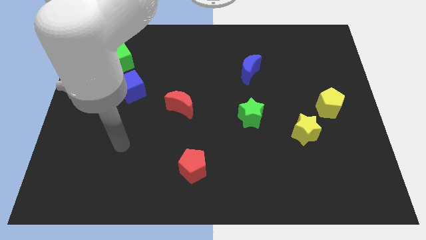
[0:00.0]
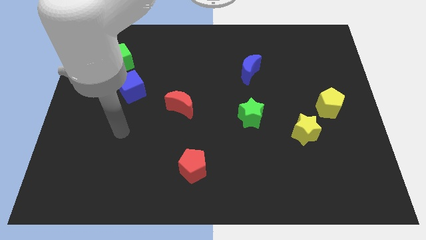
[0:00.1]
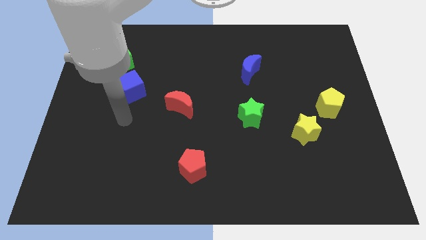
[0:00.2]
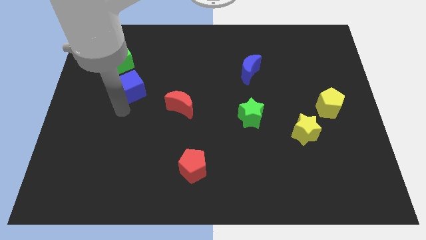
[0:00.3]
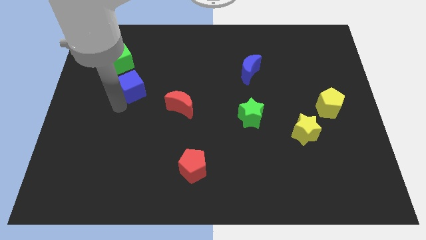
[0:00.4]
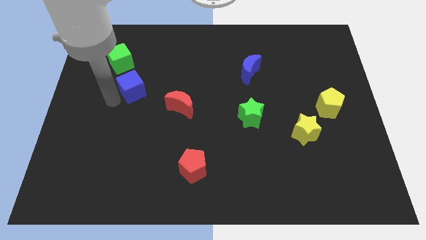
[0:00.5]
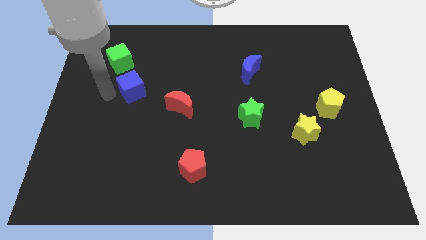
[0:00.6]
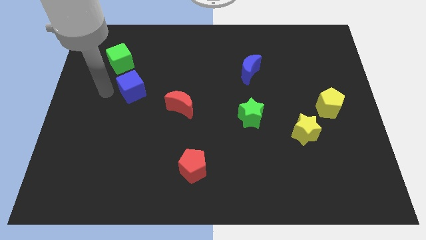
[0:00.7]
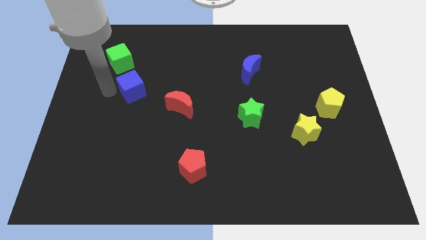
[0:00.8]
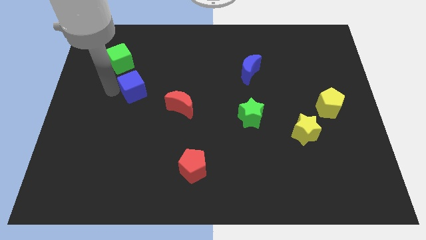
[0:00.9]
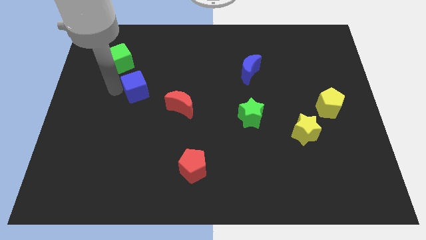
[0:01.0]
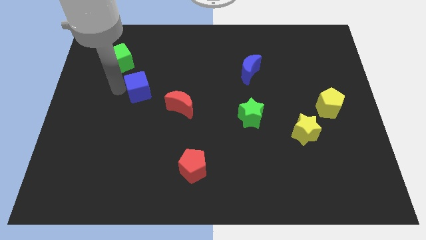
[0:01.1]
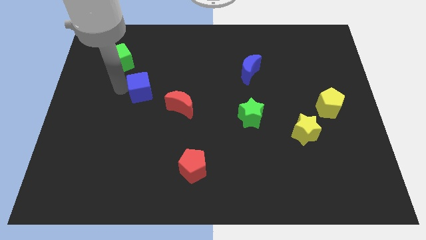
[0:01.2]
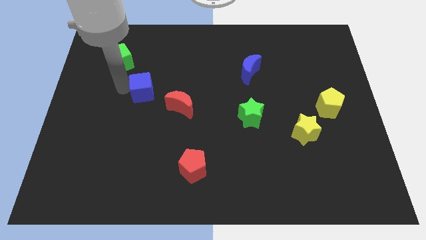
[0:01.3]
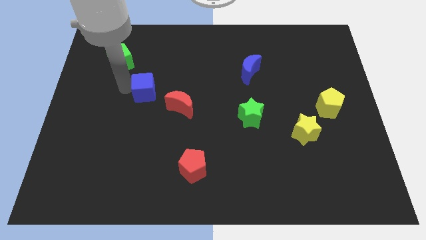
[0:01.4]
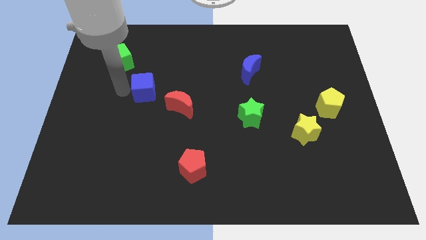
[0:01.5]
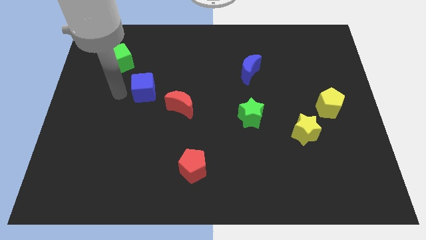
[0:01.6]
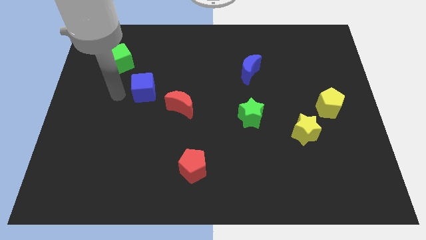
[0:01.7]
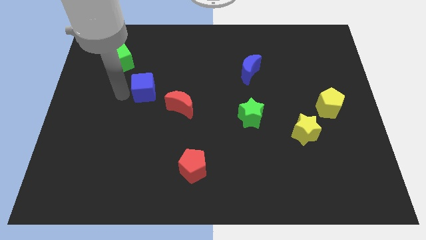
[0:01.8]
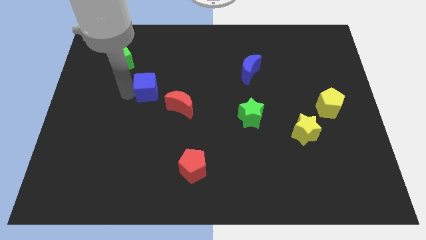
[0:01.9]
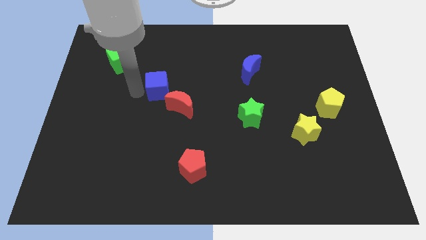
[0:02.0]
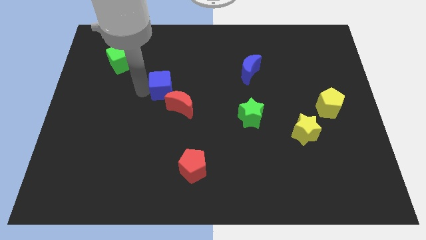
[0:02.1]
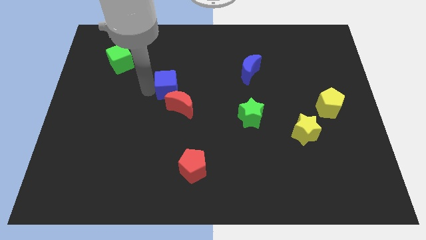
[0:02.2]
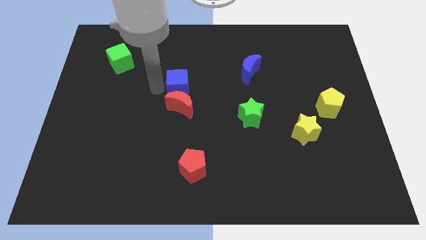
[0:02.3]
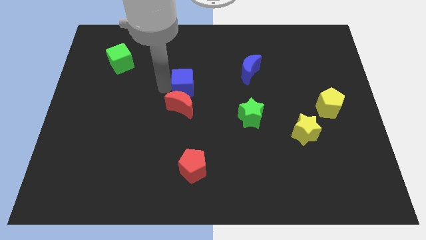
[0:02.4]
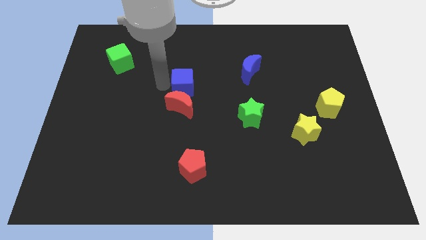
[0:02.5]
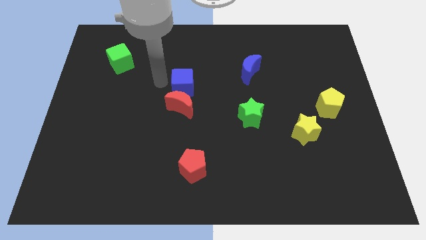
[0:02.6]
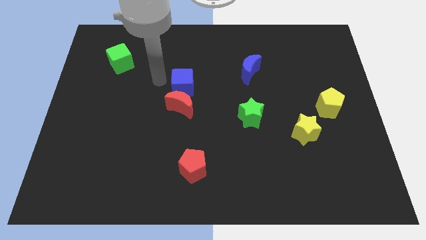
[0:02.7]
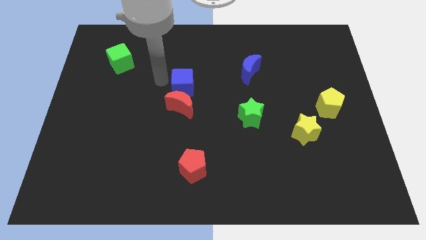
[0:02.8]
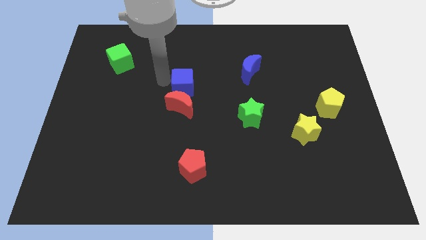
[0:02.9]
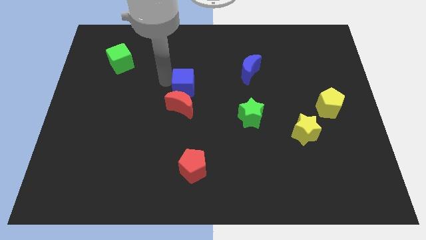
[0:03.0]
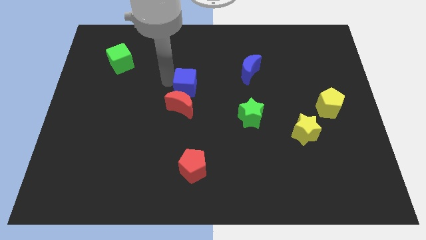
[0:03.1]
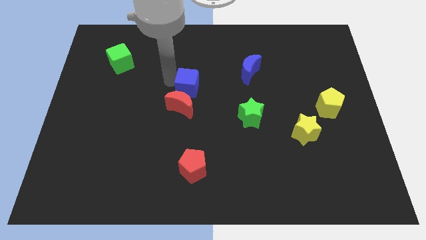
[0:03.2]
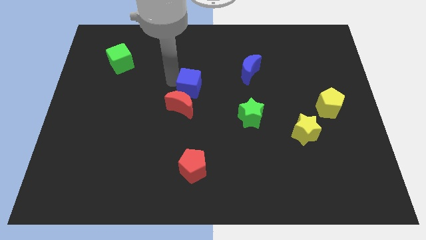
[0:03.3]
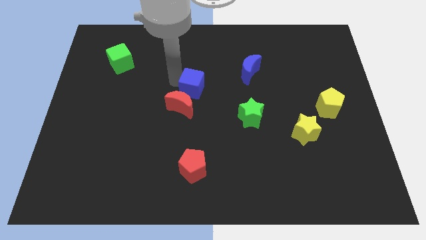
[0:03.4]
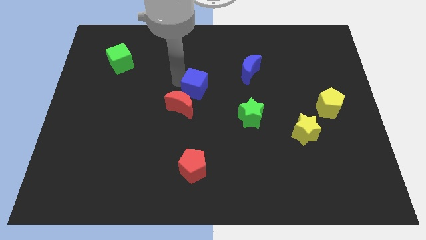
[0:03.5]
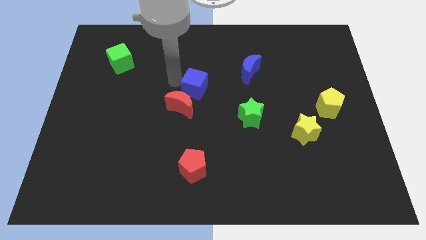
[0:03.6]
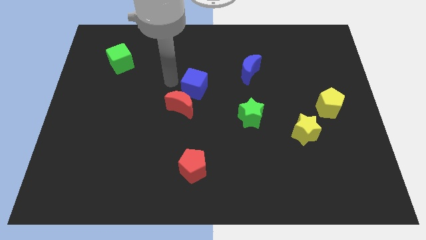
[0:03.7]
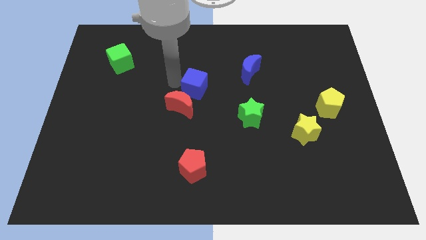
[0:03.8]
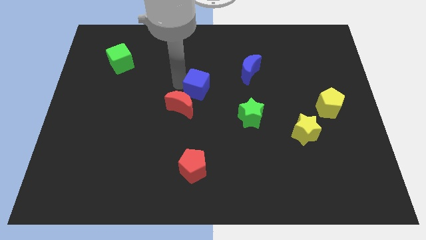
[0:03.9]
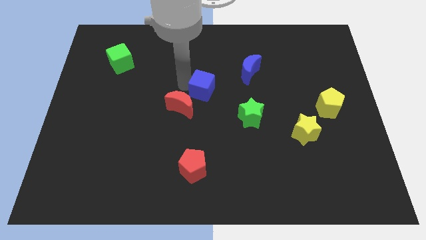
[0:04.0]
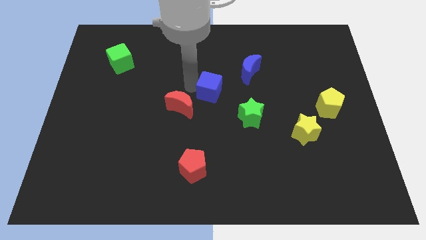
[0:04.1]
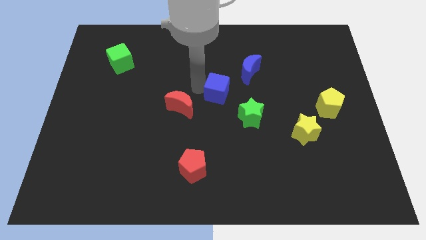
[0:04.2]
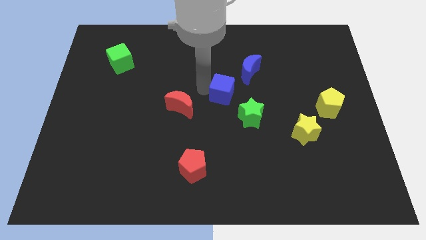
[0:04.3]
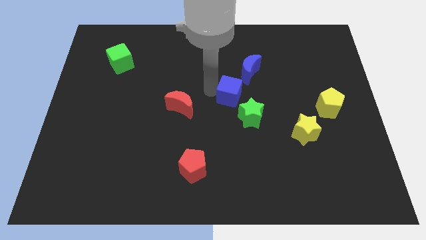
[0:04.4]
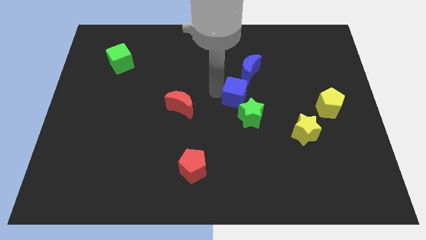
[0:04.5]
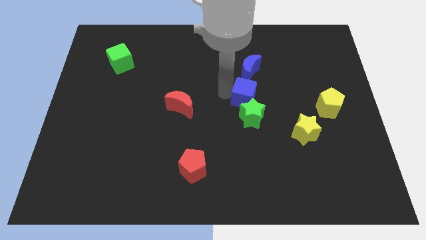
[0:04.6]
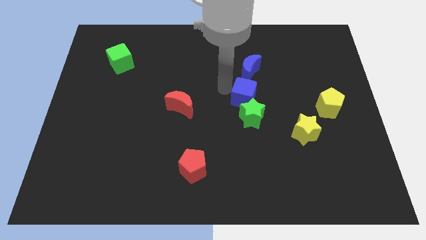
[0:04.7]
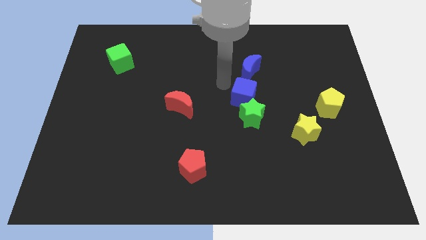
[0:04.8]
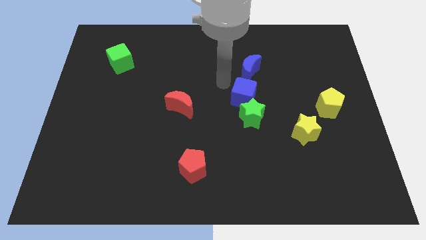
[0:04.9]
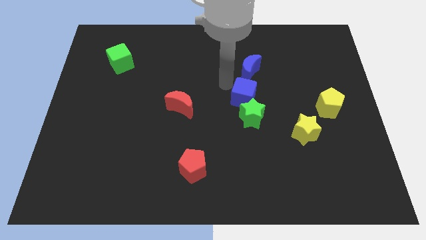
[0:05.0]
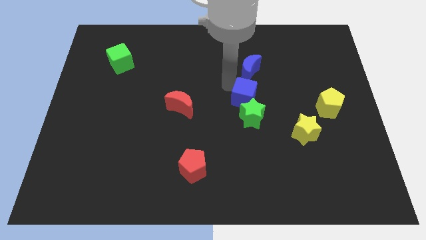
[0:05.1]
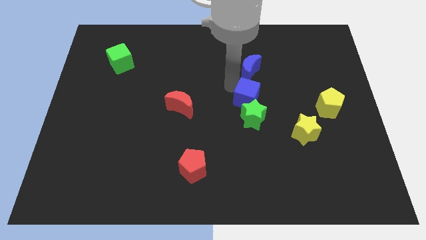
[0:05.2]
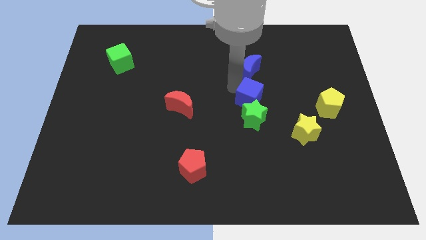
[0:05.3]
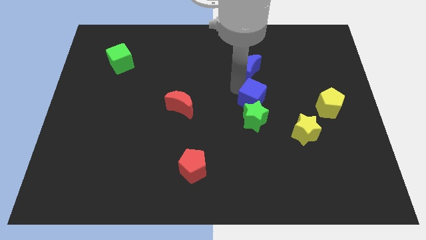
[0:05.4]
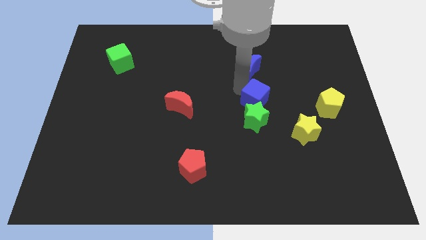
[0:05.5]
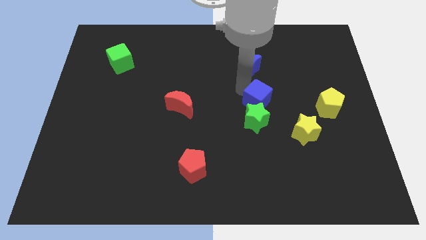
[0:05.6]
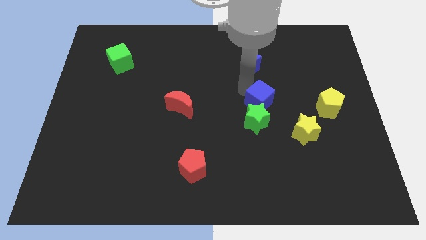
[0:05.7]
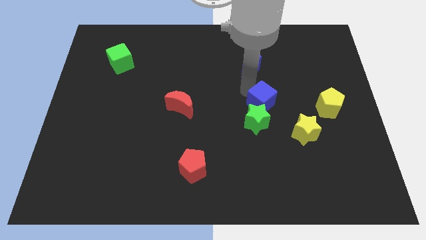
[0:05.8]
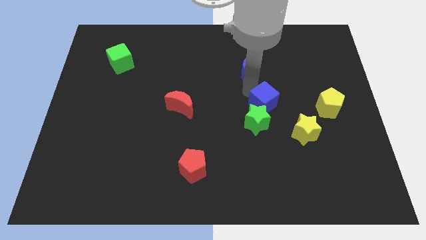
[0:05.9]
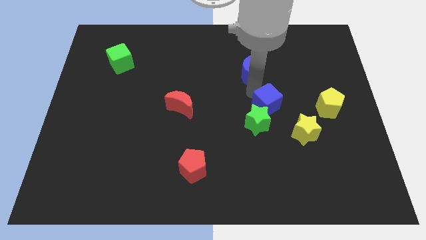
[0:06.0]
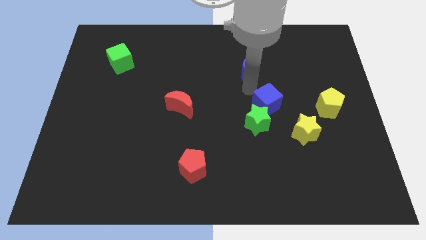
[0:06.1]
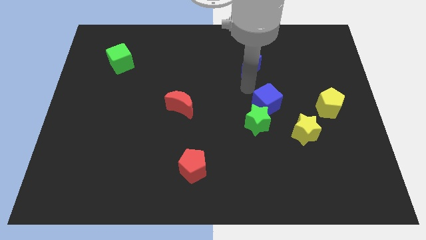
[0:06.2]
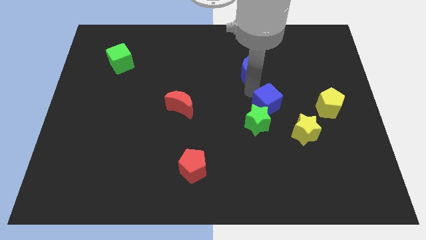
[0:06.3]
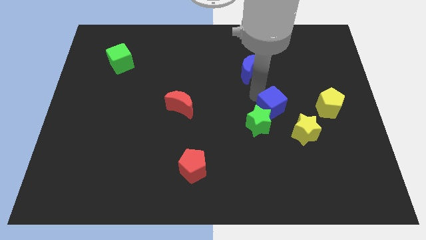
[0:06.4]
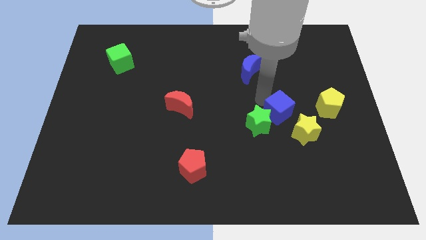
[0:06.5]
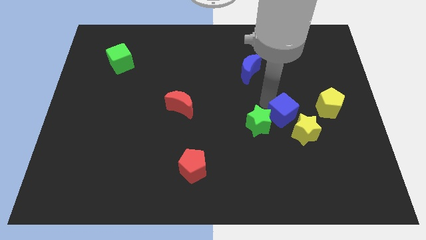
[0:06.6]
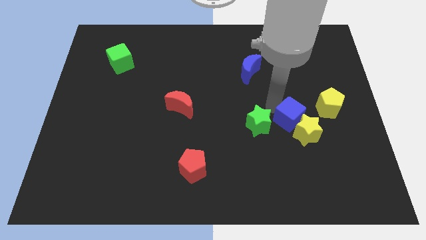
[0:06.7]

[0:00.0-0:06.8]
push the blue cube to the yellow star

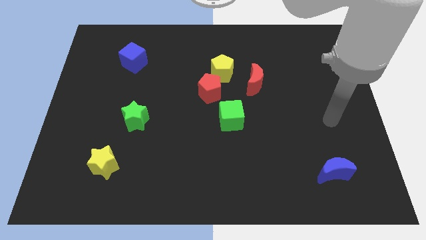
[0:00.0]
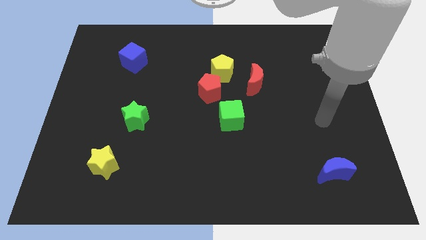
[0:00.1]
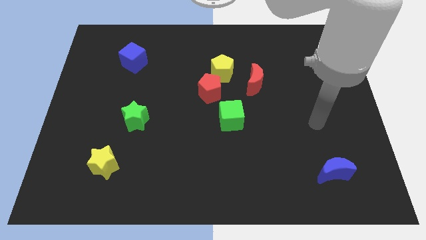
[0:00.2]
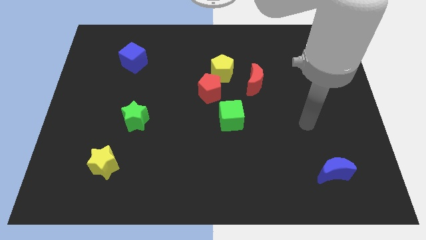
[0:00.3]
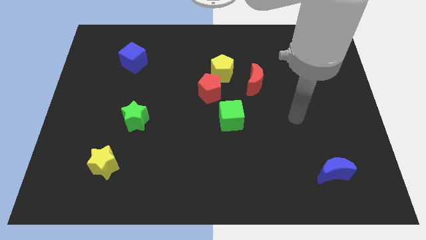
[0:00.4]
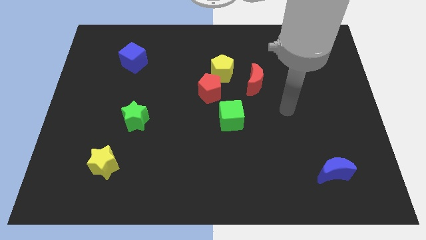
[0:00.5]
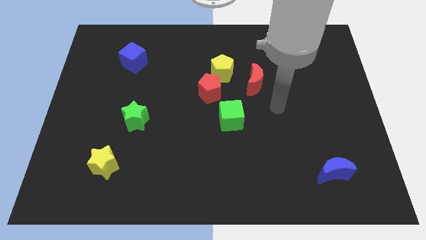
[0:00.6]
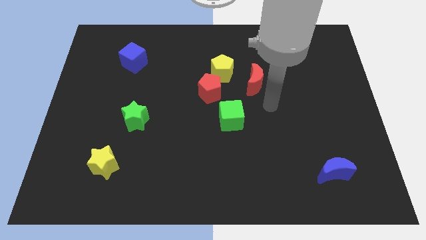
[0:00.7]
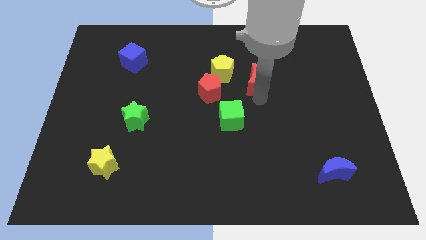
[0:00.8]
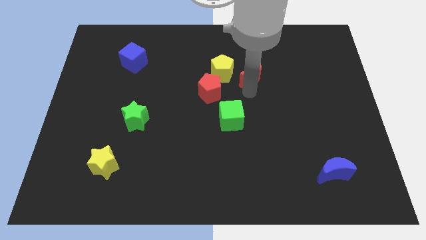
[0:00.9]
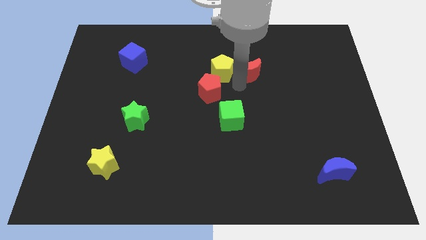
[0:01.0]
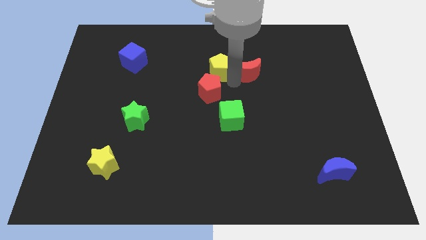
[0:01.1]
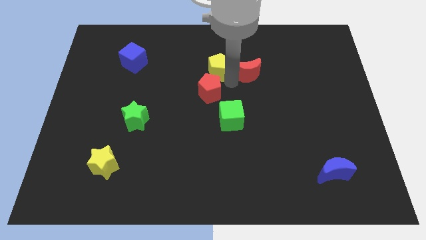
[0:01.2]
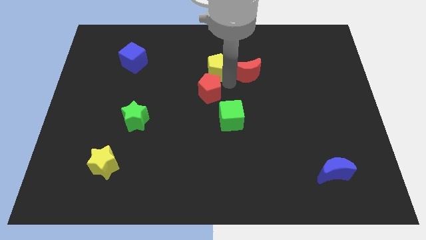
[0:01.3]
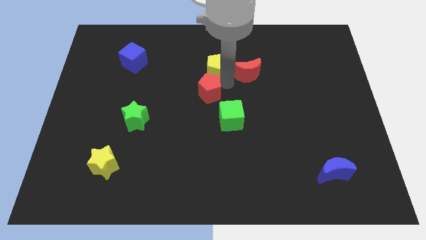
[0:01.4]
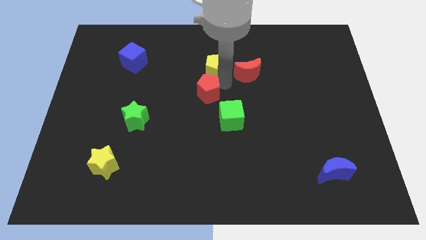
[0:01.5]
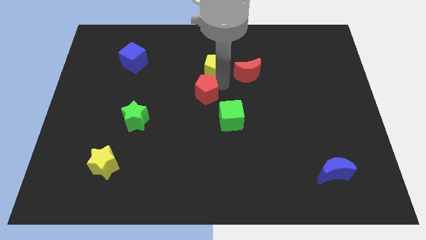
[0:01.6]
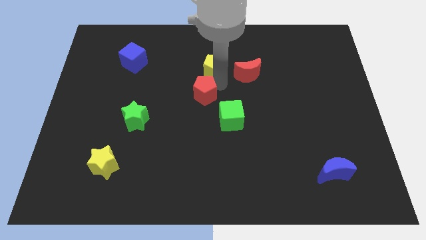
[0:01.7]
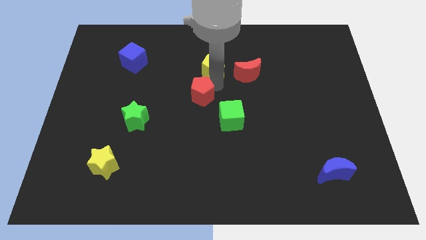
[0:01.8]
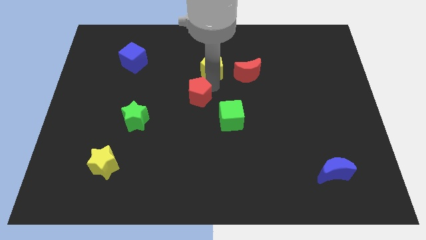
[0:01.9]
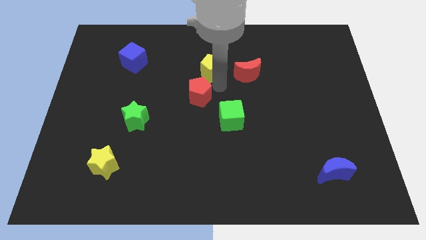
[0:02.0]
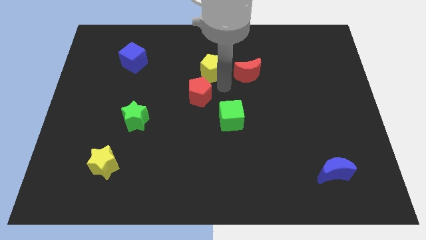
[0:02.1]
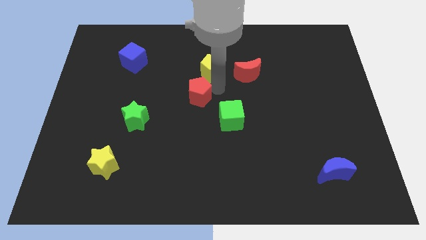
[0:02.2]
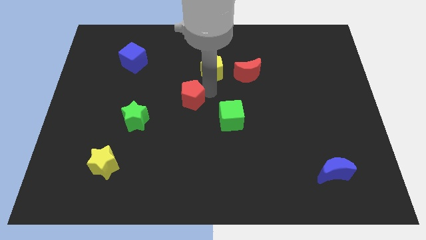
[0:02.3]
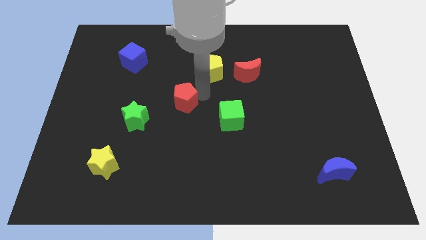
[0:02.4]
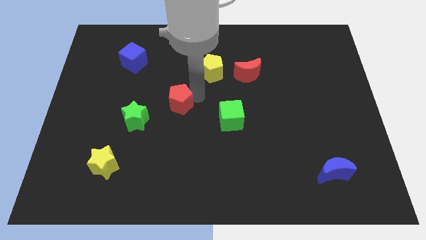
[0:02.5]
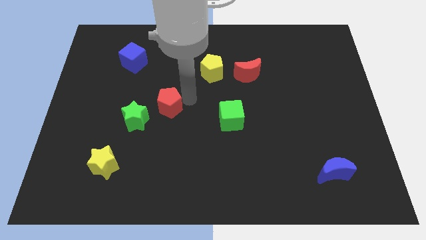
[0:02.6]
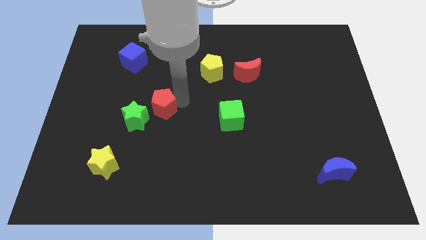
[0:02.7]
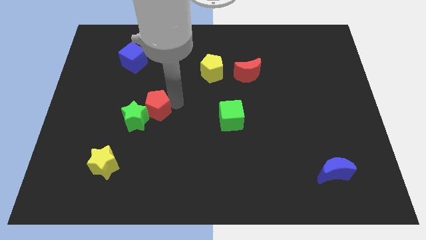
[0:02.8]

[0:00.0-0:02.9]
push the red pentagon to the green star
